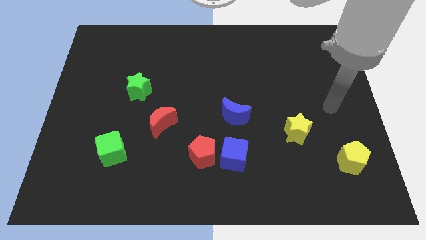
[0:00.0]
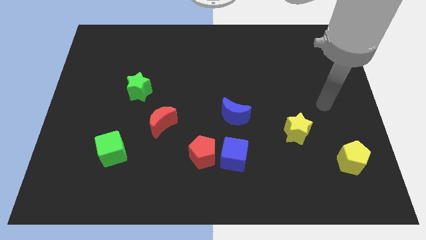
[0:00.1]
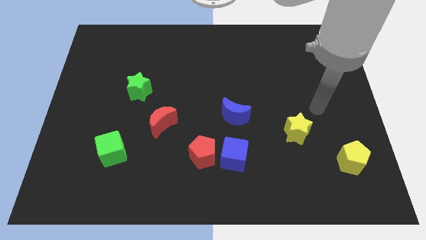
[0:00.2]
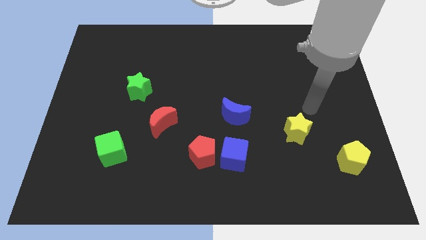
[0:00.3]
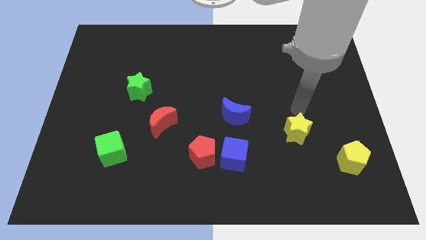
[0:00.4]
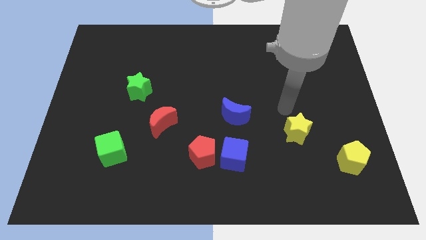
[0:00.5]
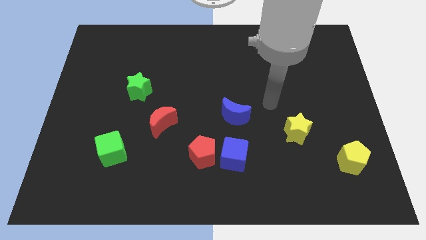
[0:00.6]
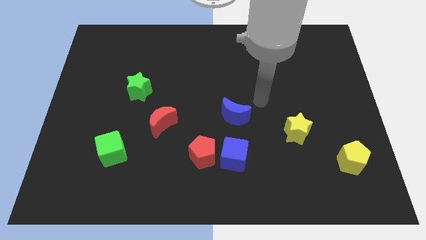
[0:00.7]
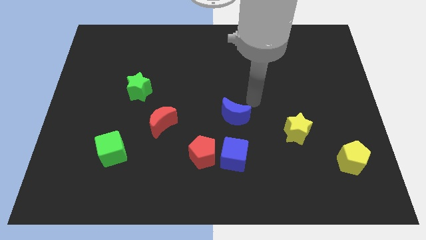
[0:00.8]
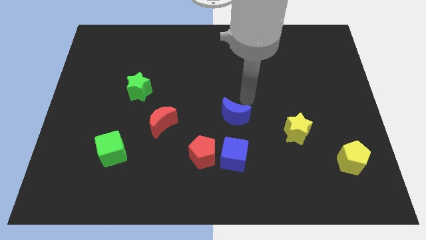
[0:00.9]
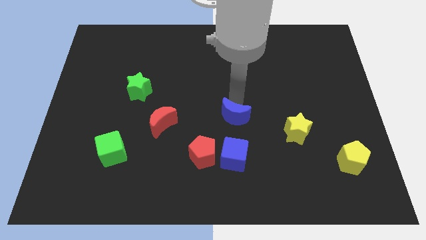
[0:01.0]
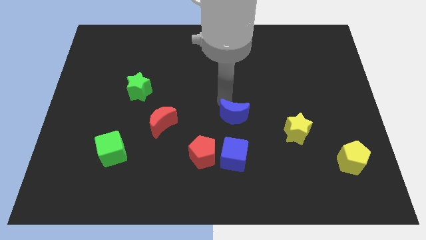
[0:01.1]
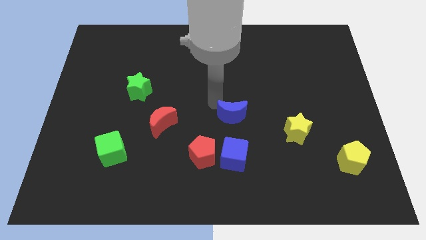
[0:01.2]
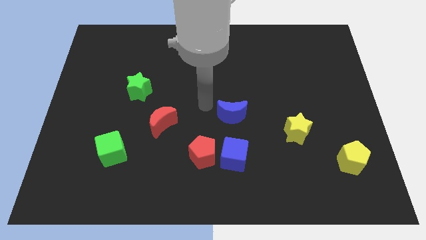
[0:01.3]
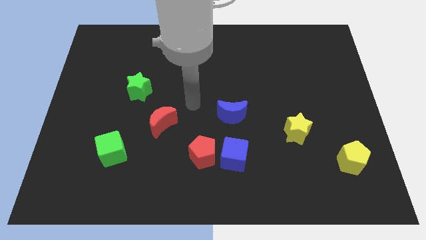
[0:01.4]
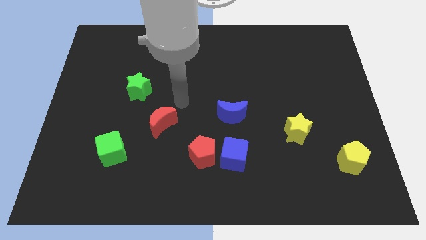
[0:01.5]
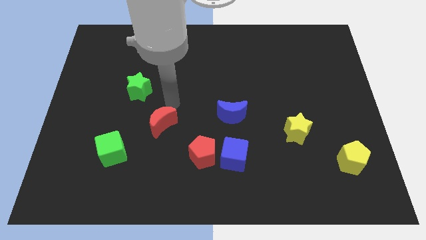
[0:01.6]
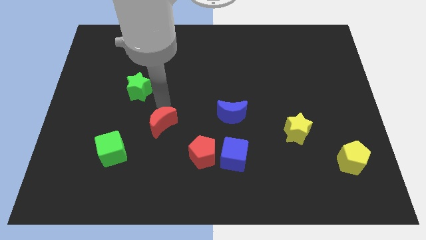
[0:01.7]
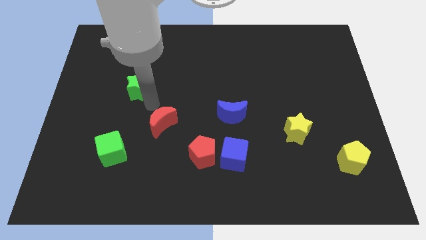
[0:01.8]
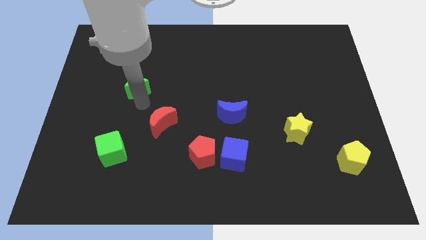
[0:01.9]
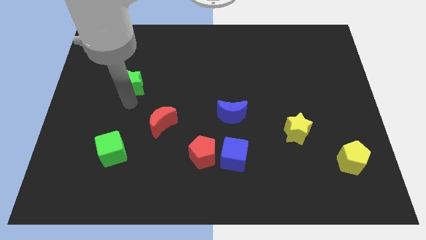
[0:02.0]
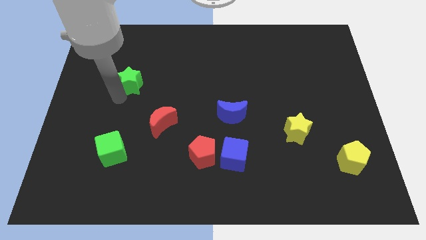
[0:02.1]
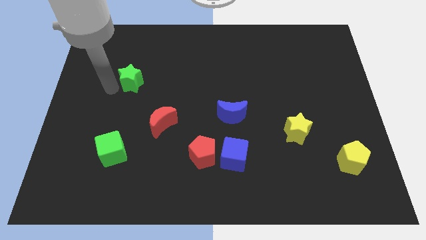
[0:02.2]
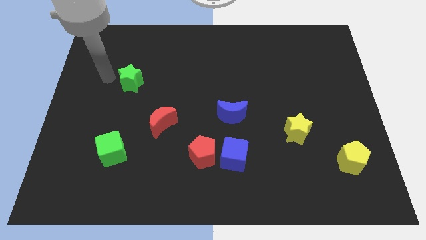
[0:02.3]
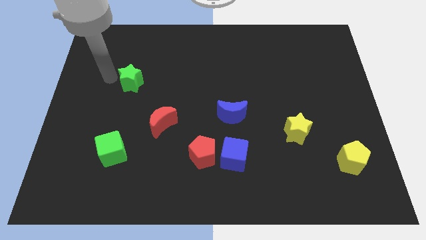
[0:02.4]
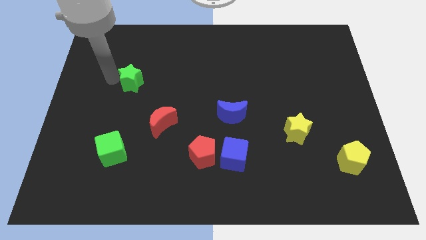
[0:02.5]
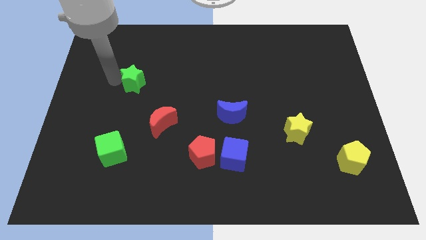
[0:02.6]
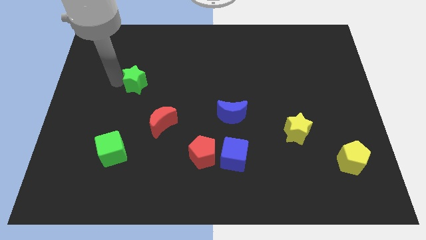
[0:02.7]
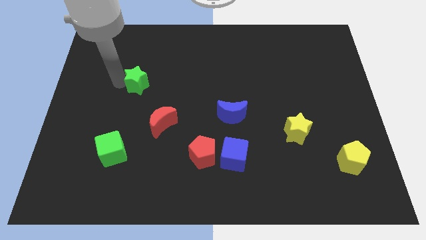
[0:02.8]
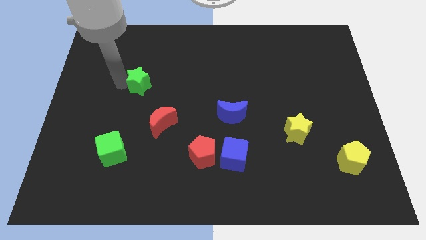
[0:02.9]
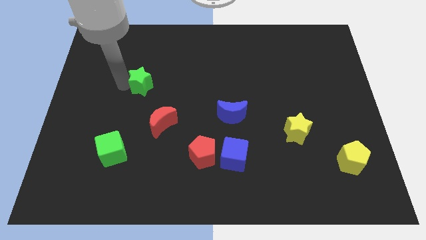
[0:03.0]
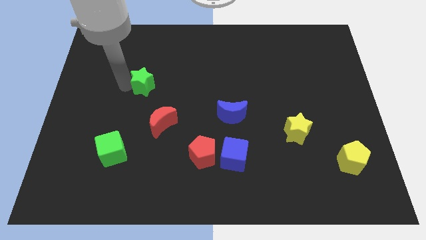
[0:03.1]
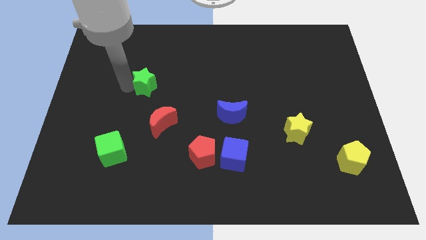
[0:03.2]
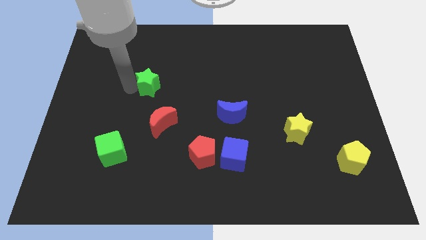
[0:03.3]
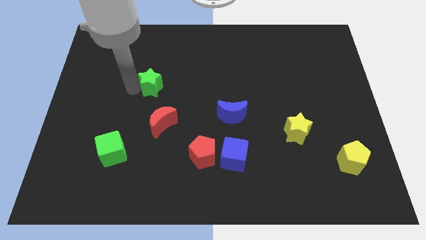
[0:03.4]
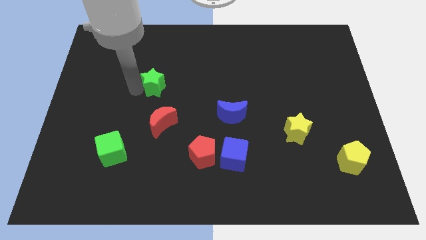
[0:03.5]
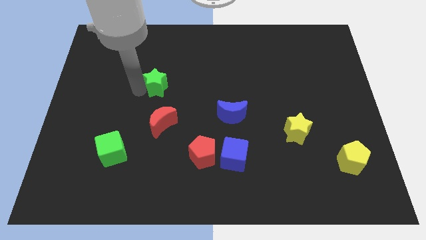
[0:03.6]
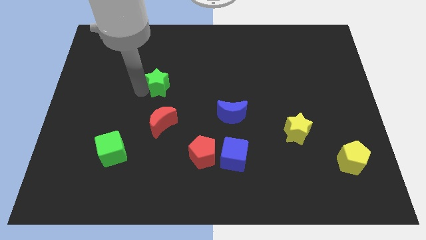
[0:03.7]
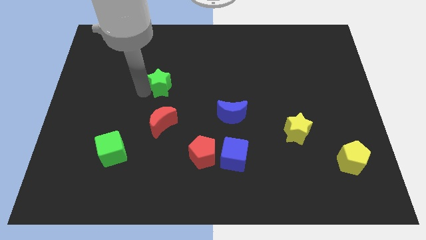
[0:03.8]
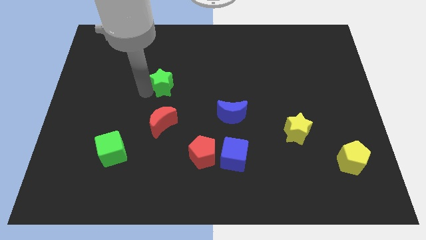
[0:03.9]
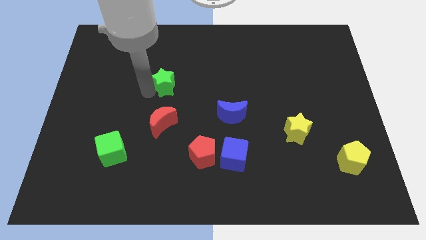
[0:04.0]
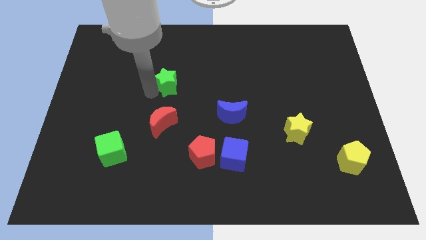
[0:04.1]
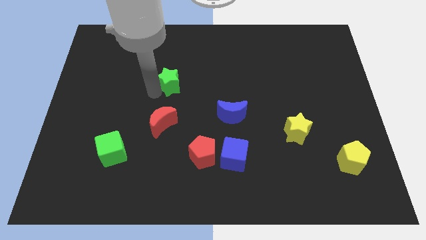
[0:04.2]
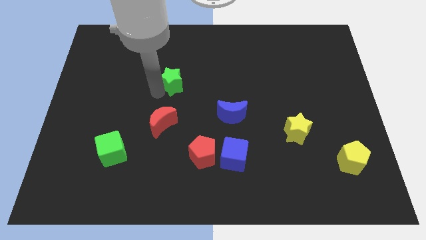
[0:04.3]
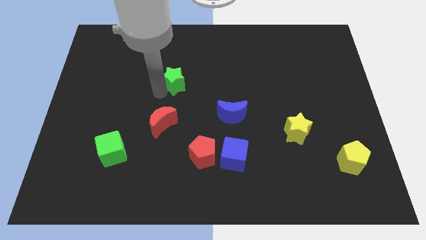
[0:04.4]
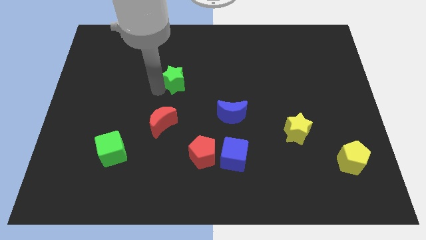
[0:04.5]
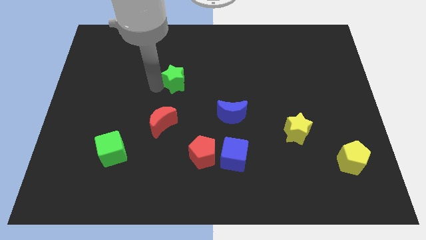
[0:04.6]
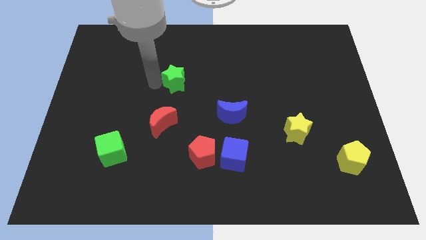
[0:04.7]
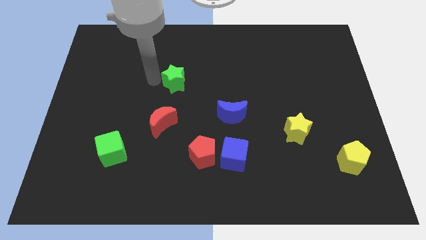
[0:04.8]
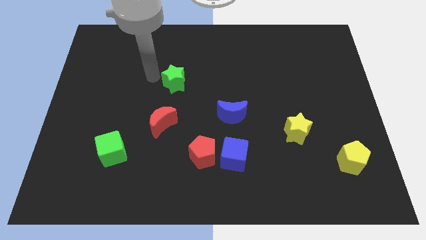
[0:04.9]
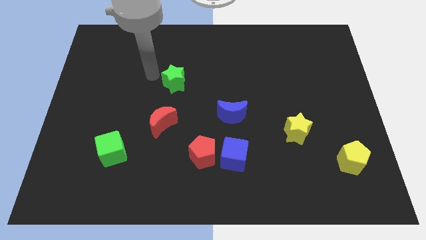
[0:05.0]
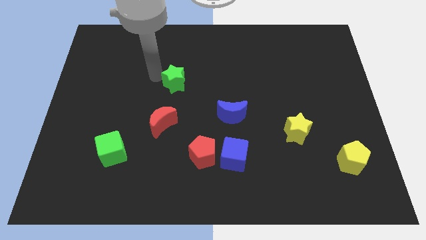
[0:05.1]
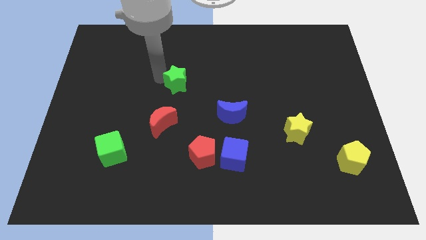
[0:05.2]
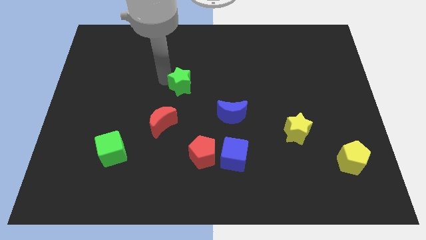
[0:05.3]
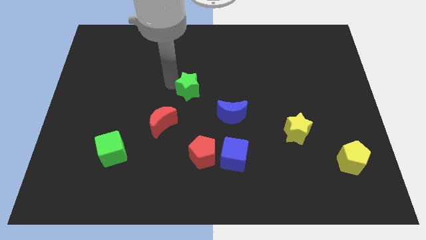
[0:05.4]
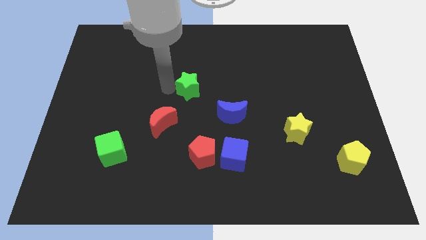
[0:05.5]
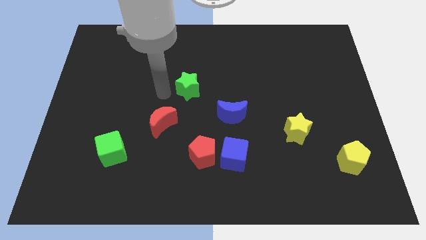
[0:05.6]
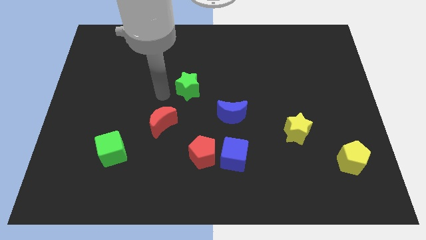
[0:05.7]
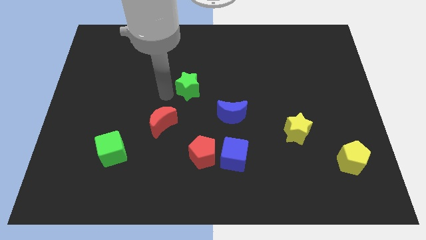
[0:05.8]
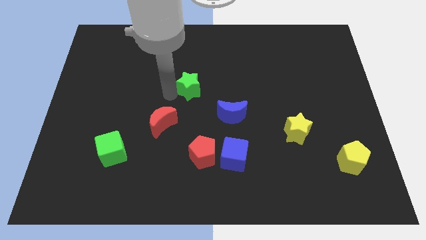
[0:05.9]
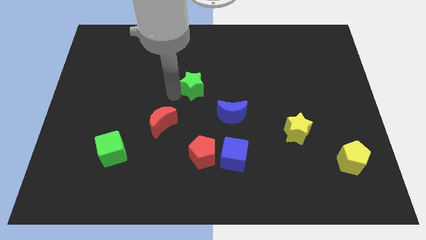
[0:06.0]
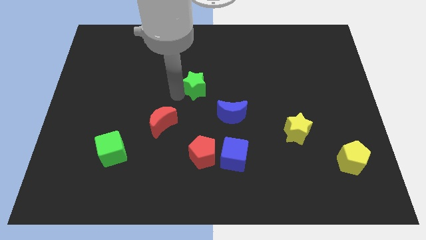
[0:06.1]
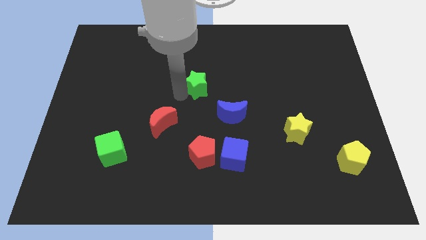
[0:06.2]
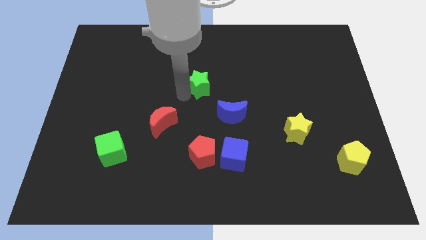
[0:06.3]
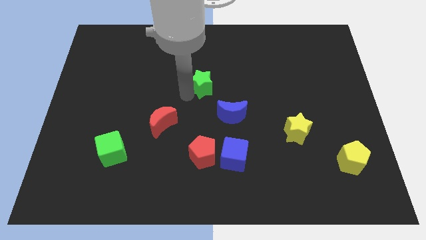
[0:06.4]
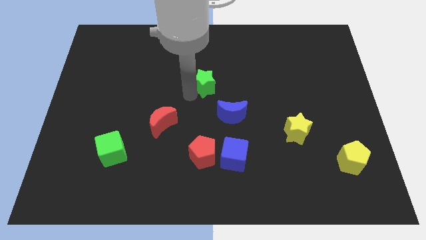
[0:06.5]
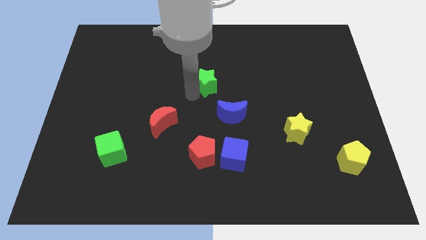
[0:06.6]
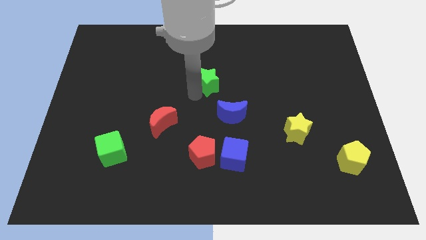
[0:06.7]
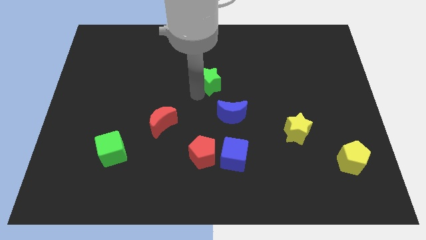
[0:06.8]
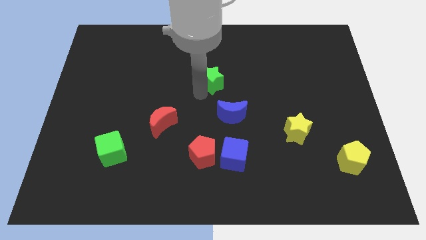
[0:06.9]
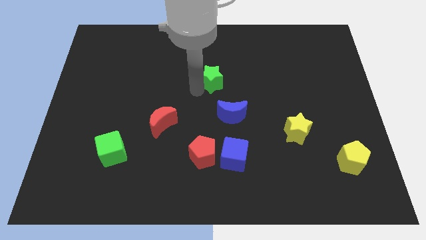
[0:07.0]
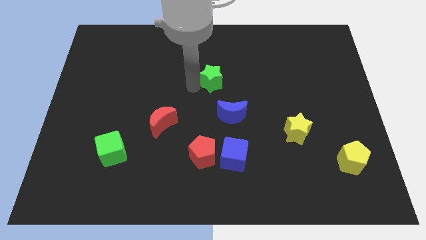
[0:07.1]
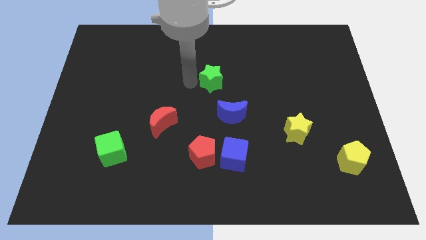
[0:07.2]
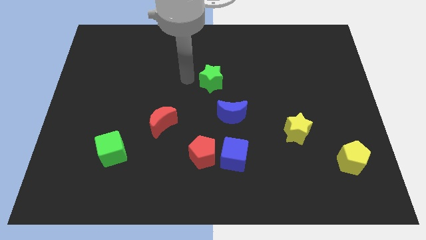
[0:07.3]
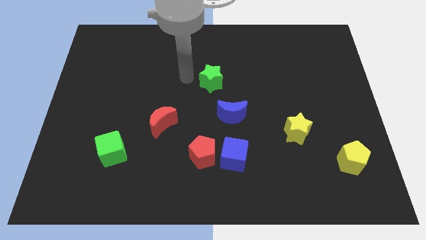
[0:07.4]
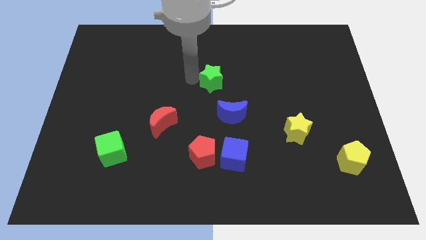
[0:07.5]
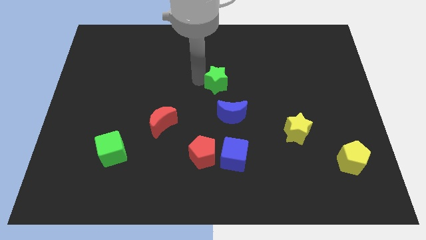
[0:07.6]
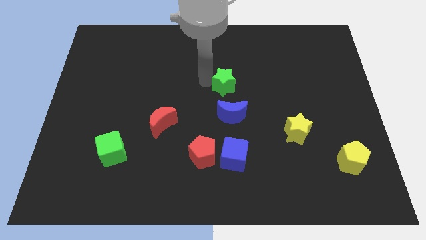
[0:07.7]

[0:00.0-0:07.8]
move the green star to the right
